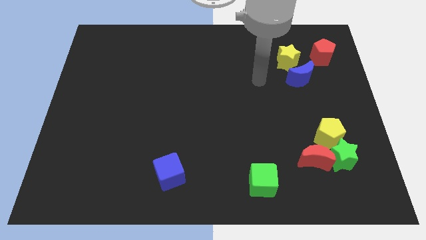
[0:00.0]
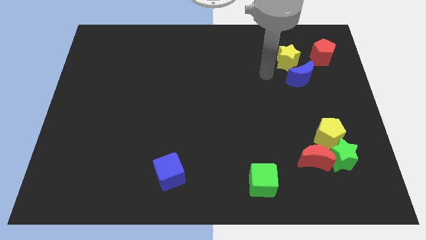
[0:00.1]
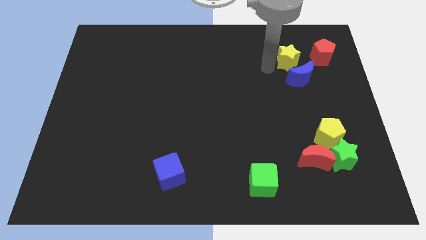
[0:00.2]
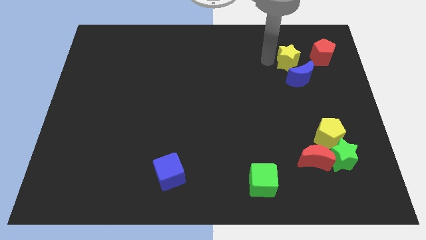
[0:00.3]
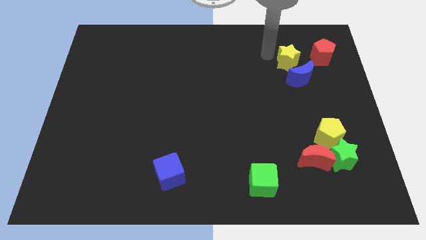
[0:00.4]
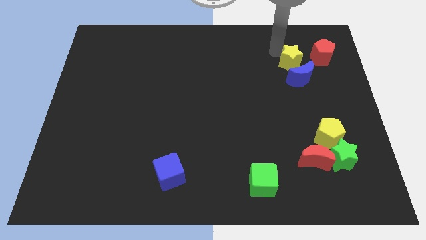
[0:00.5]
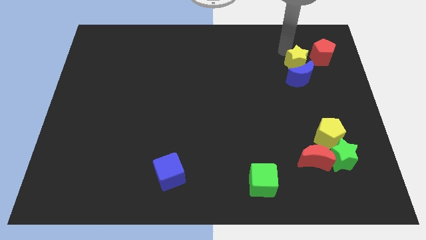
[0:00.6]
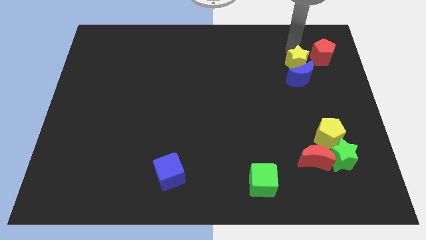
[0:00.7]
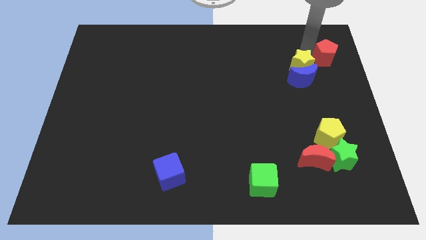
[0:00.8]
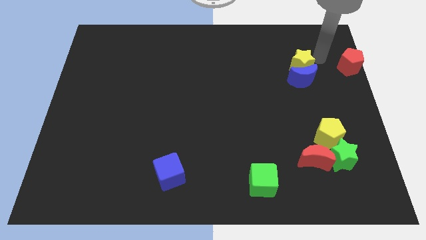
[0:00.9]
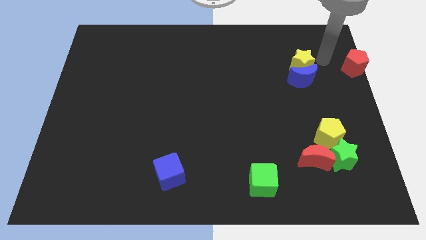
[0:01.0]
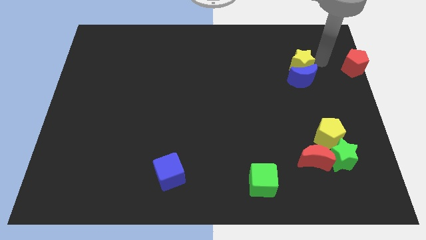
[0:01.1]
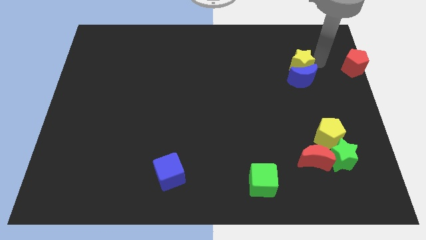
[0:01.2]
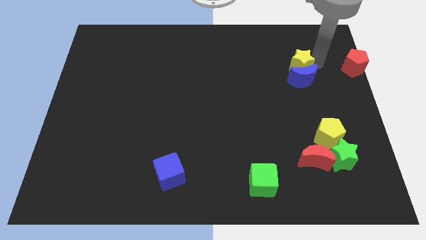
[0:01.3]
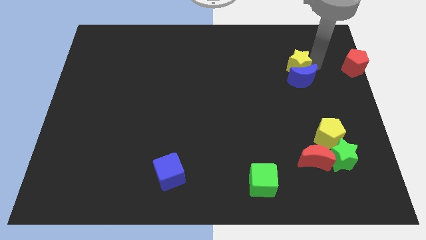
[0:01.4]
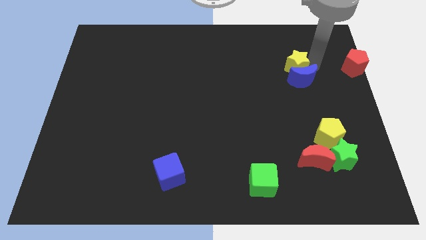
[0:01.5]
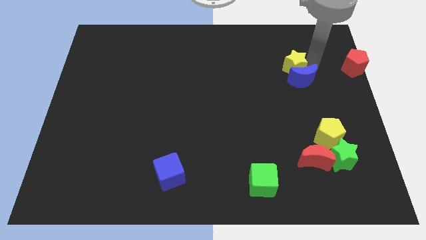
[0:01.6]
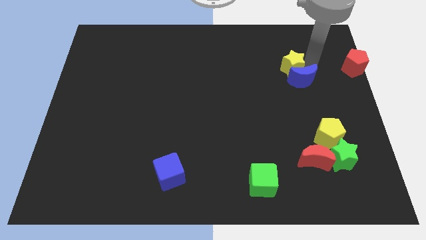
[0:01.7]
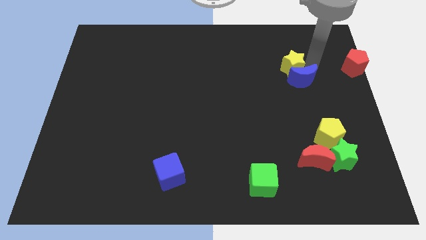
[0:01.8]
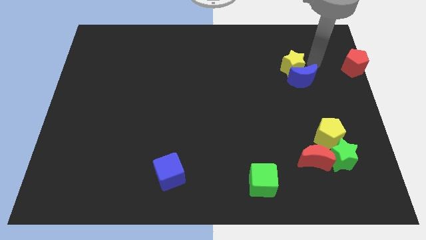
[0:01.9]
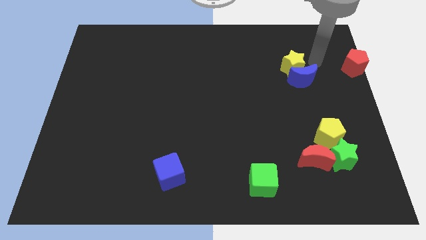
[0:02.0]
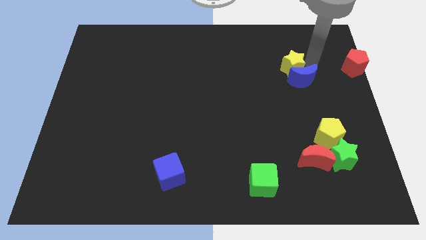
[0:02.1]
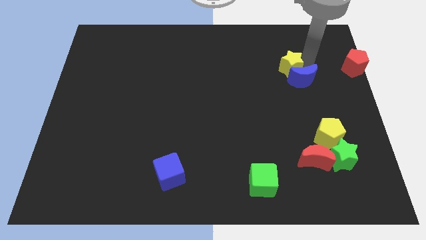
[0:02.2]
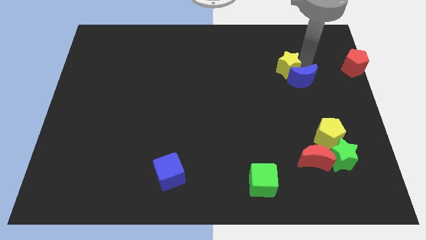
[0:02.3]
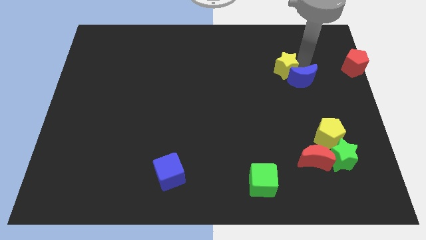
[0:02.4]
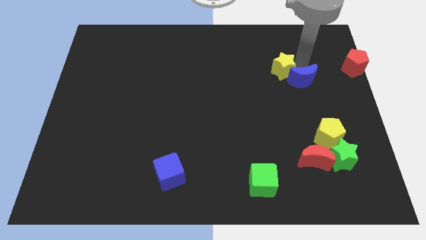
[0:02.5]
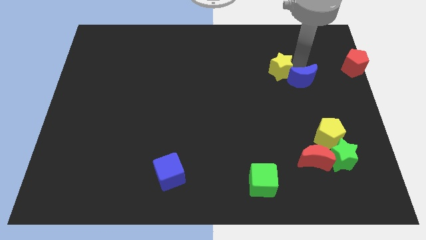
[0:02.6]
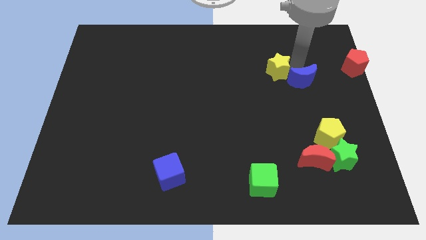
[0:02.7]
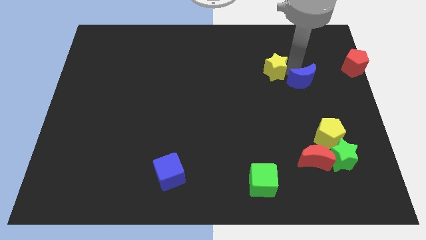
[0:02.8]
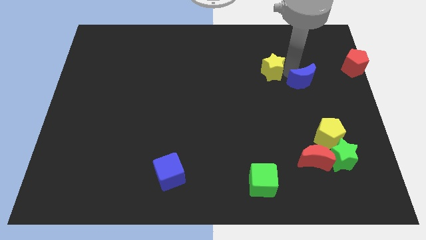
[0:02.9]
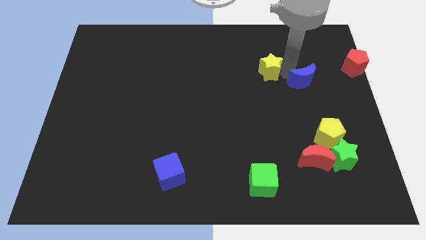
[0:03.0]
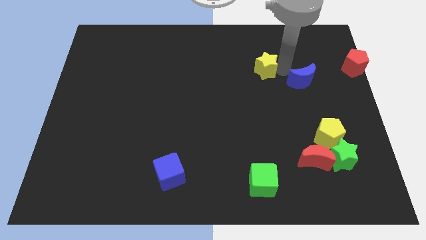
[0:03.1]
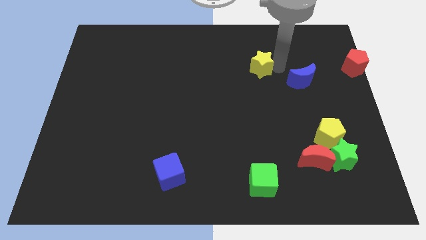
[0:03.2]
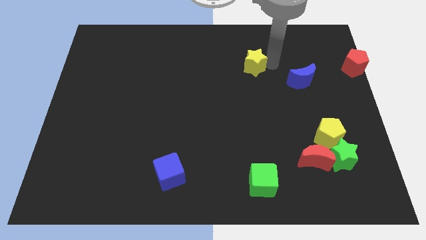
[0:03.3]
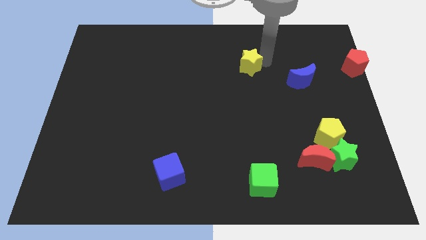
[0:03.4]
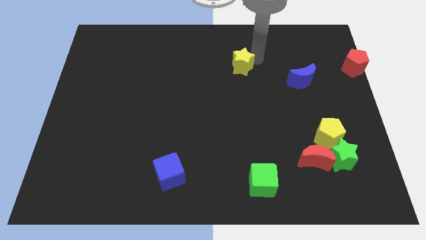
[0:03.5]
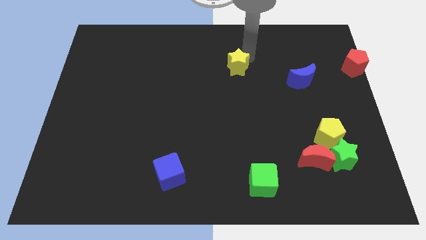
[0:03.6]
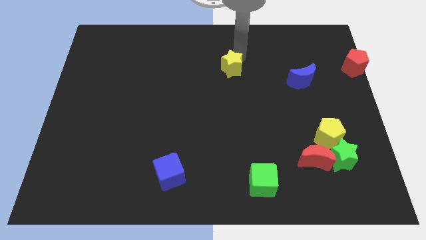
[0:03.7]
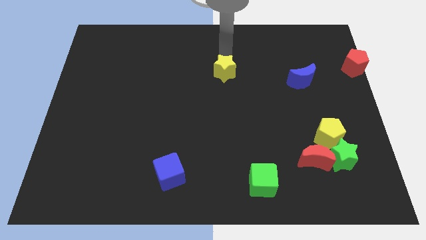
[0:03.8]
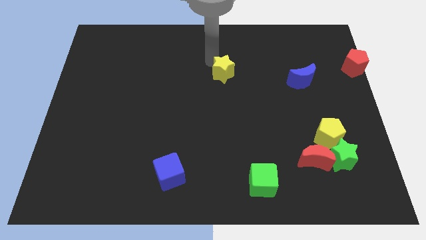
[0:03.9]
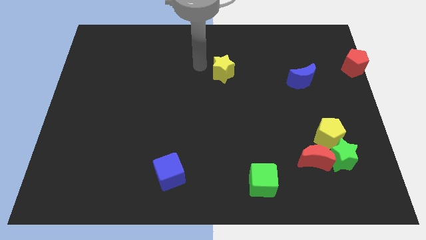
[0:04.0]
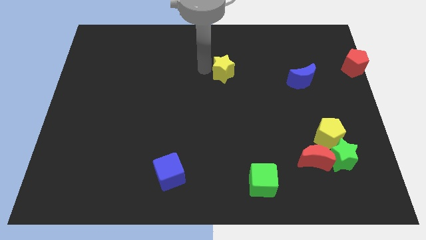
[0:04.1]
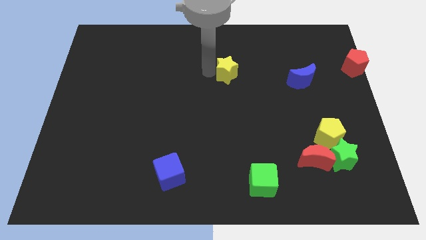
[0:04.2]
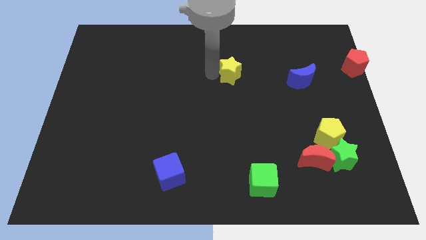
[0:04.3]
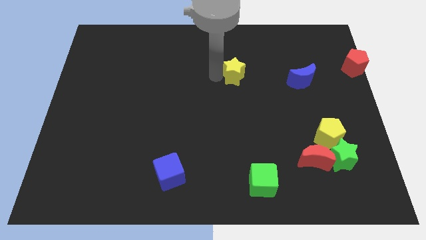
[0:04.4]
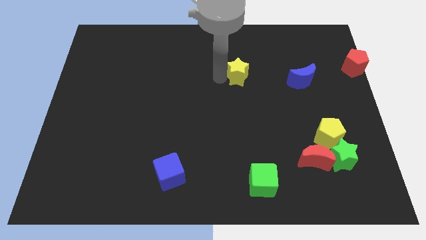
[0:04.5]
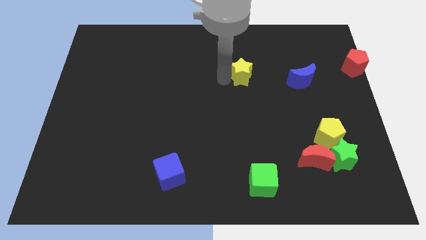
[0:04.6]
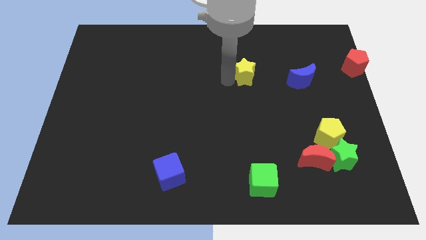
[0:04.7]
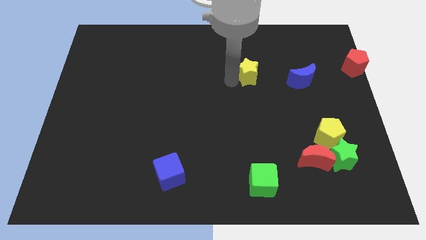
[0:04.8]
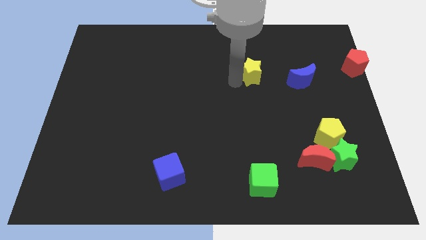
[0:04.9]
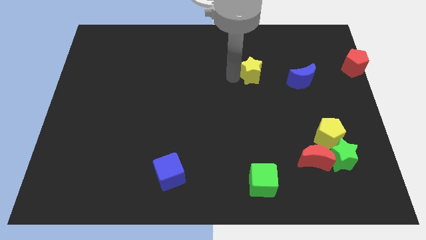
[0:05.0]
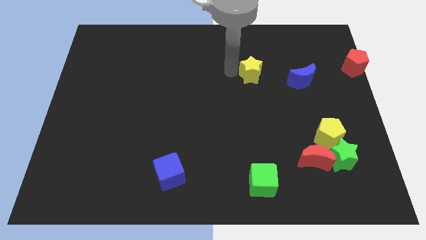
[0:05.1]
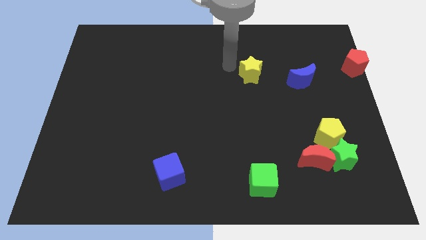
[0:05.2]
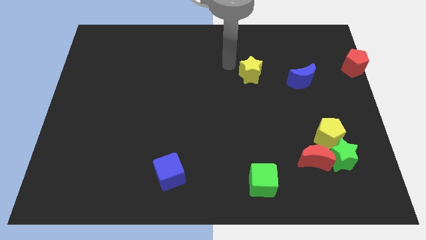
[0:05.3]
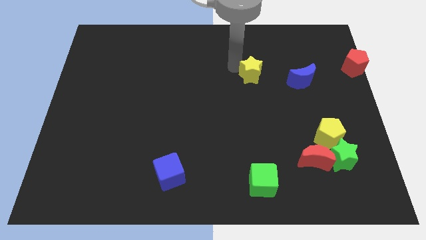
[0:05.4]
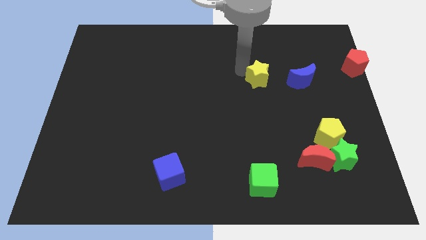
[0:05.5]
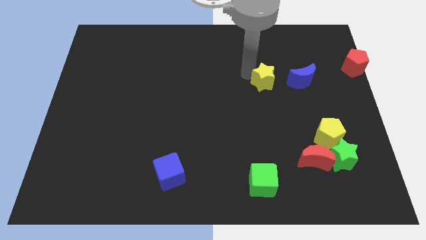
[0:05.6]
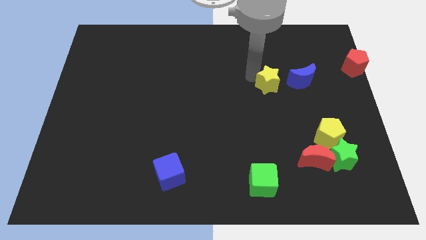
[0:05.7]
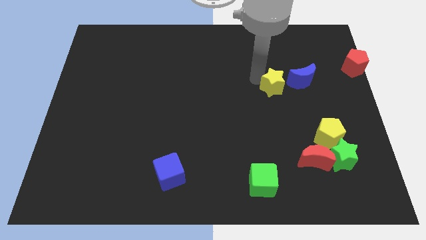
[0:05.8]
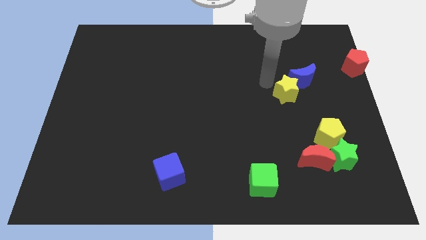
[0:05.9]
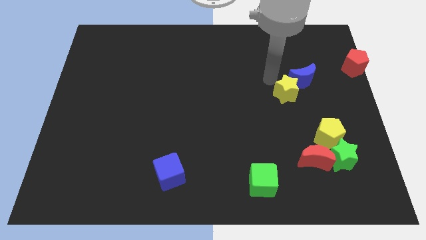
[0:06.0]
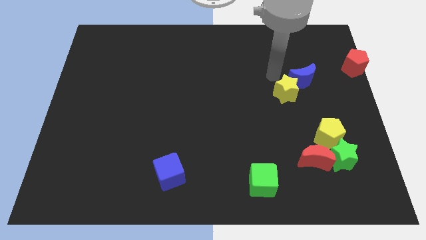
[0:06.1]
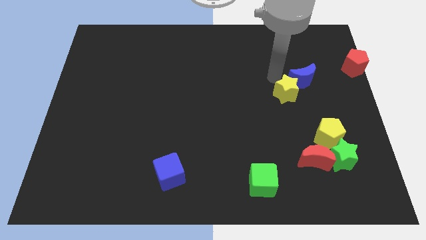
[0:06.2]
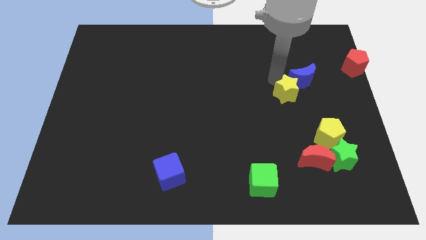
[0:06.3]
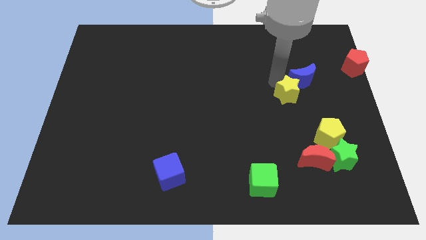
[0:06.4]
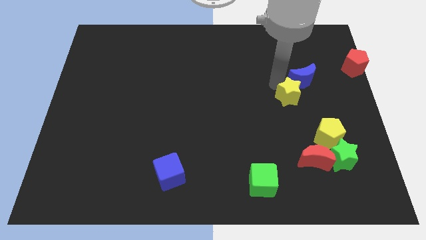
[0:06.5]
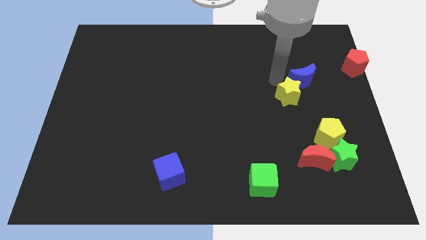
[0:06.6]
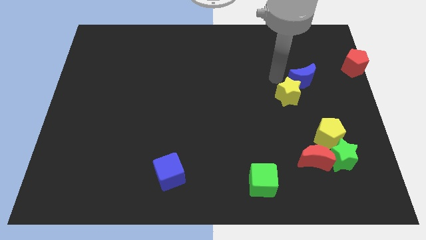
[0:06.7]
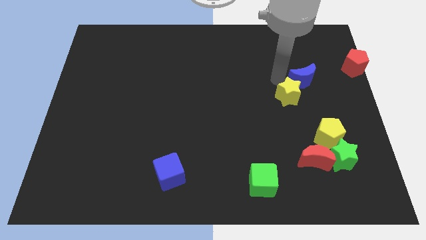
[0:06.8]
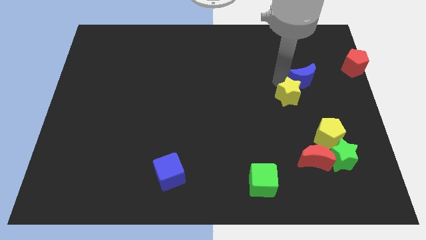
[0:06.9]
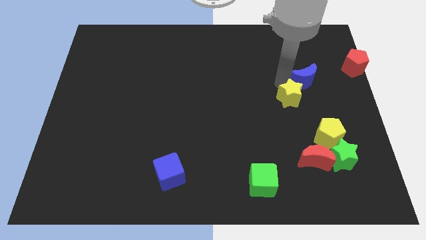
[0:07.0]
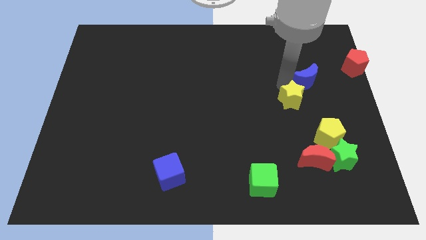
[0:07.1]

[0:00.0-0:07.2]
slide the yellow star diagonally up and to the left of the yellow pentagon

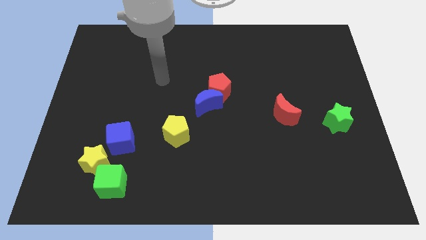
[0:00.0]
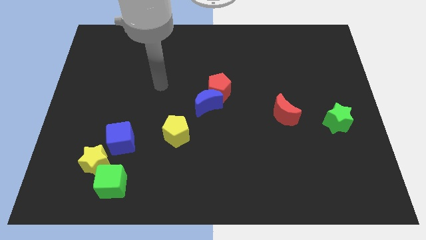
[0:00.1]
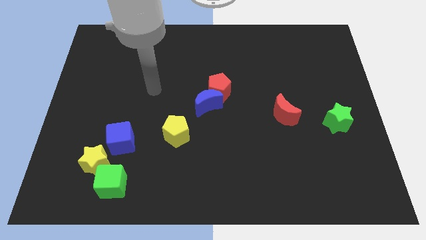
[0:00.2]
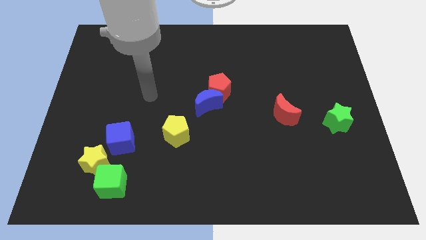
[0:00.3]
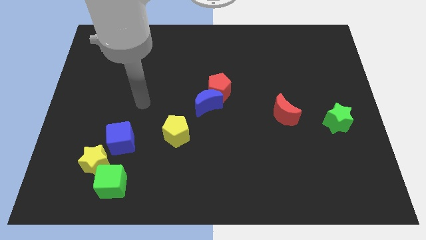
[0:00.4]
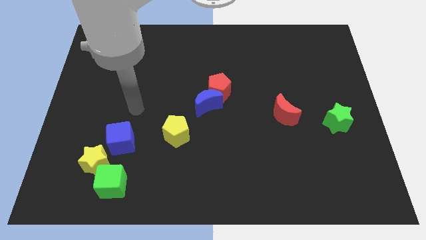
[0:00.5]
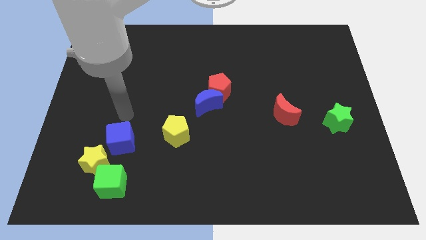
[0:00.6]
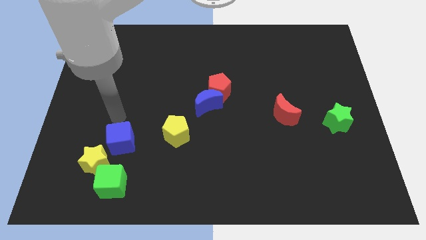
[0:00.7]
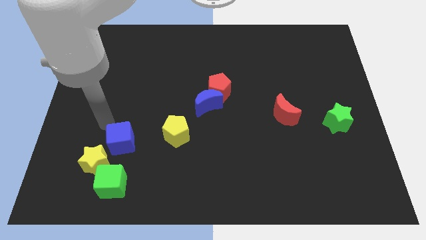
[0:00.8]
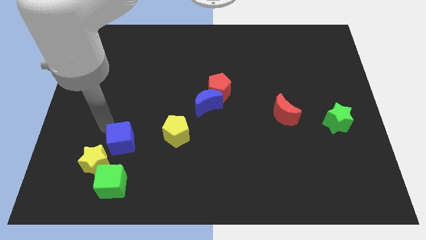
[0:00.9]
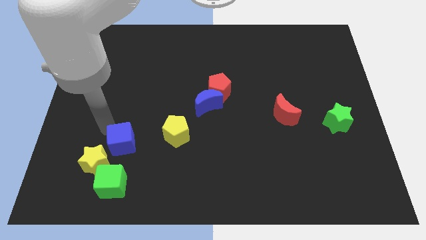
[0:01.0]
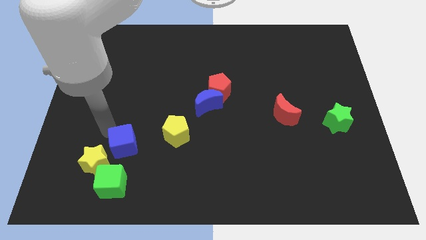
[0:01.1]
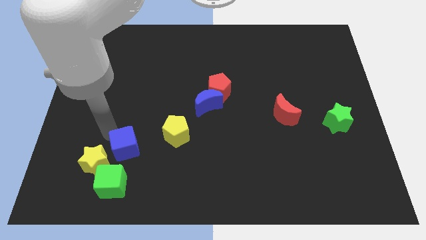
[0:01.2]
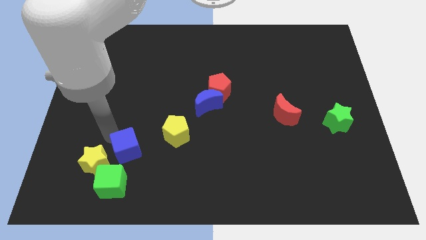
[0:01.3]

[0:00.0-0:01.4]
put the blue cube to the top right side of the green cube
